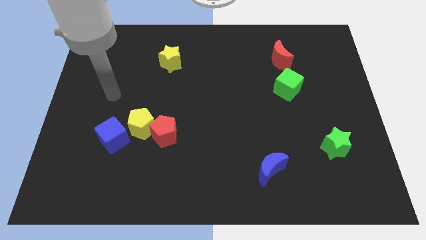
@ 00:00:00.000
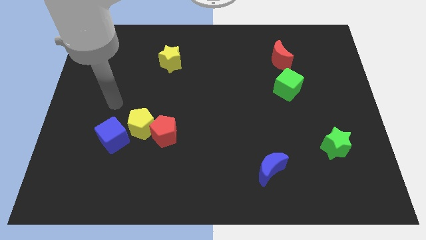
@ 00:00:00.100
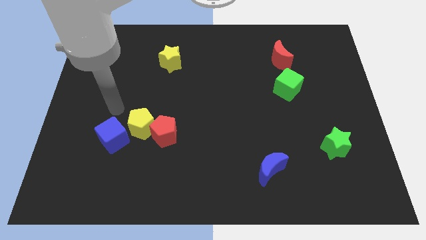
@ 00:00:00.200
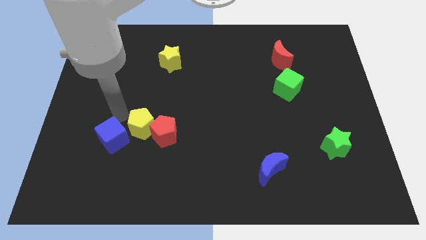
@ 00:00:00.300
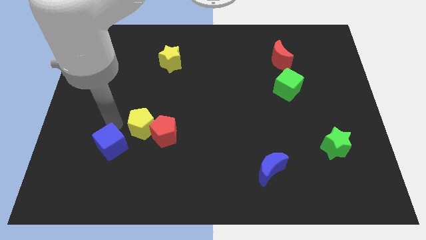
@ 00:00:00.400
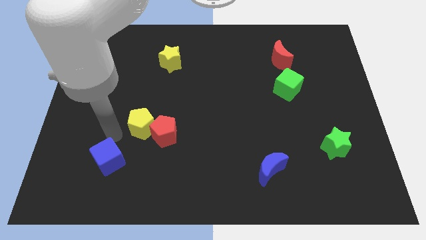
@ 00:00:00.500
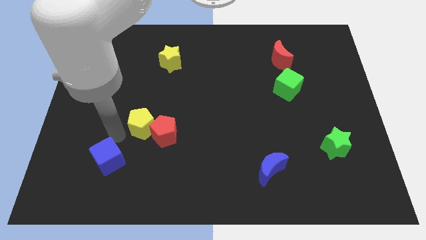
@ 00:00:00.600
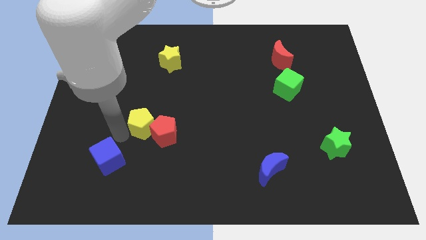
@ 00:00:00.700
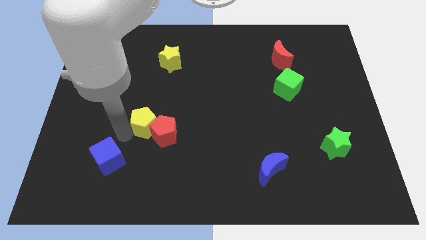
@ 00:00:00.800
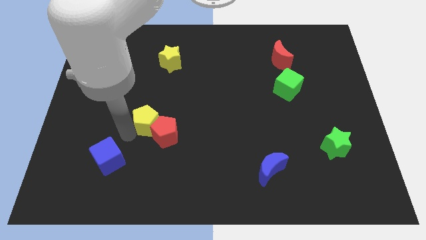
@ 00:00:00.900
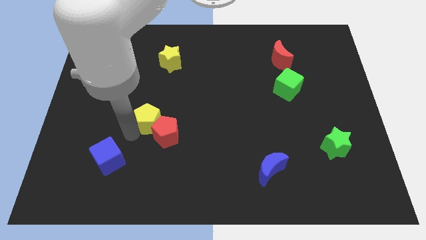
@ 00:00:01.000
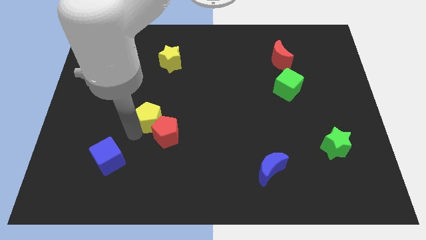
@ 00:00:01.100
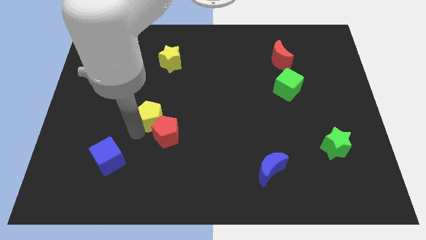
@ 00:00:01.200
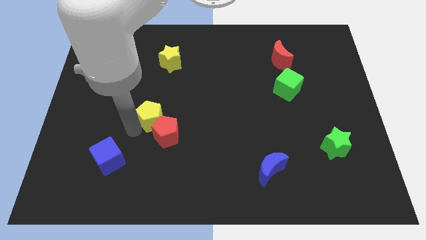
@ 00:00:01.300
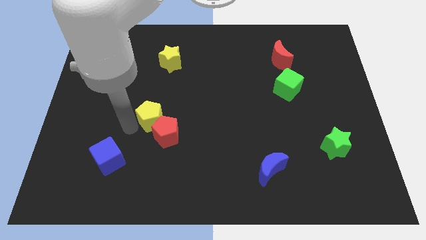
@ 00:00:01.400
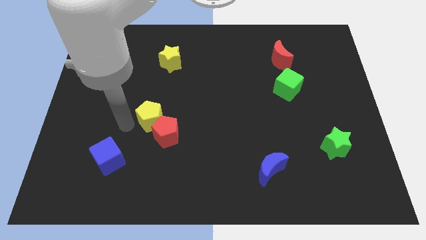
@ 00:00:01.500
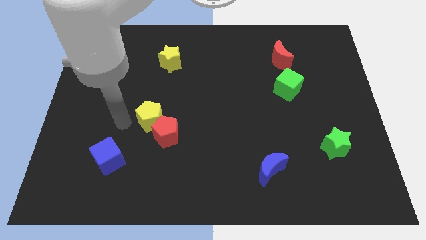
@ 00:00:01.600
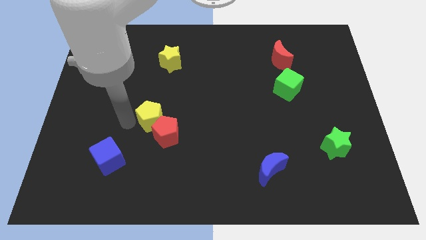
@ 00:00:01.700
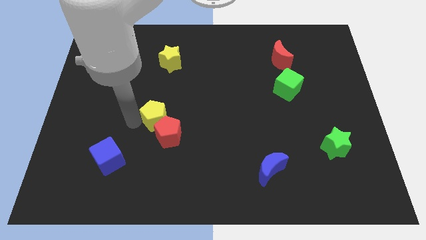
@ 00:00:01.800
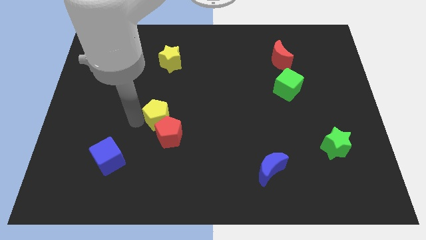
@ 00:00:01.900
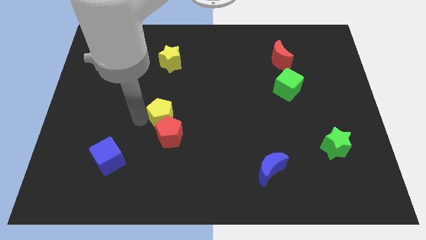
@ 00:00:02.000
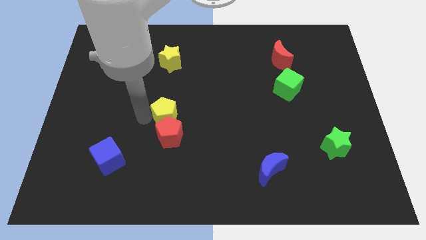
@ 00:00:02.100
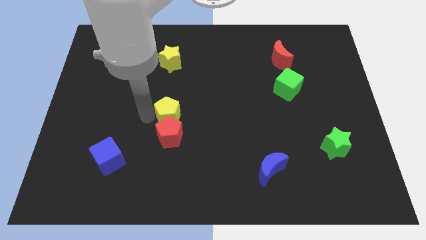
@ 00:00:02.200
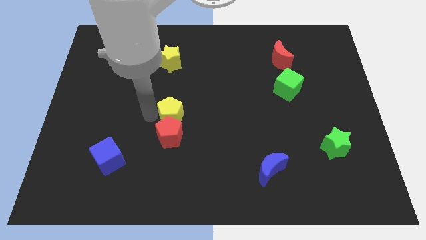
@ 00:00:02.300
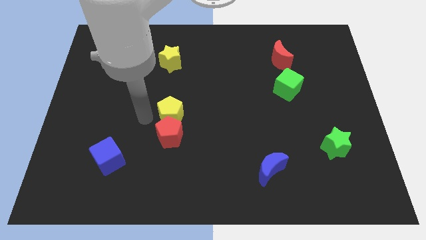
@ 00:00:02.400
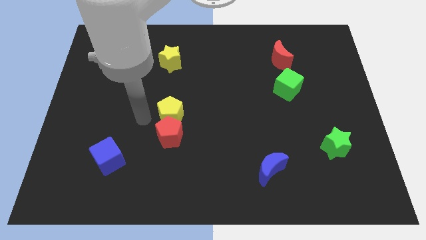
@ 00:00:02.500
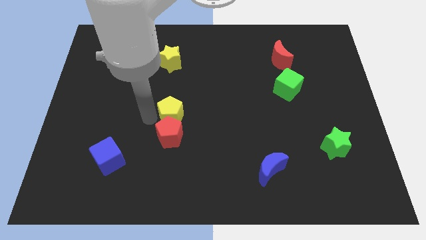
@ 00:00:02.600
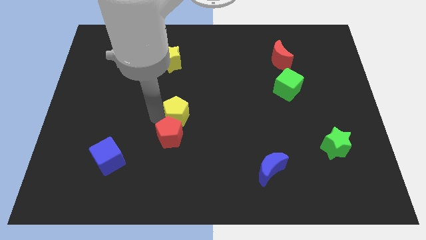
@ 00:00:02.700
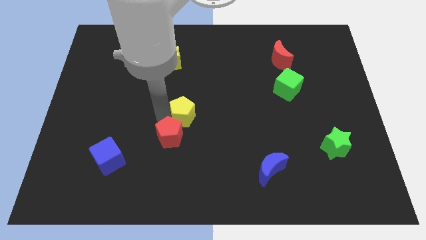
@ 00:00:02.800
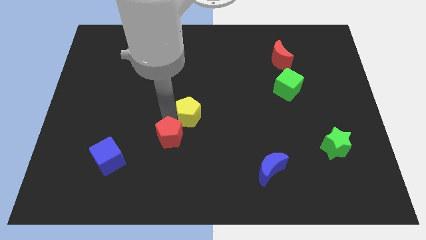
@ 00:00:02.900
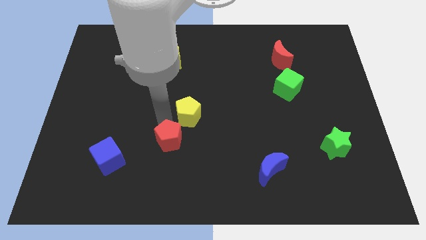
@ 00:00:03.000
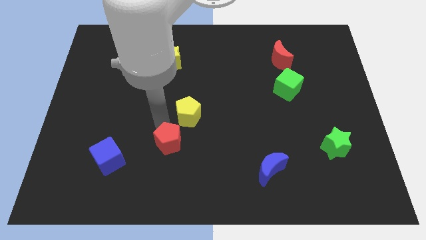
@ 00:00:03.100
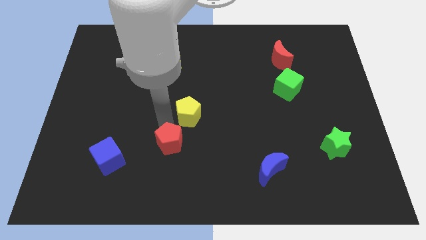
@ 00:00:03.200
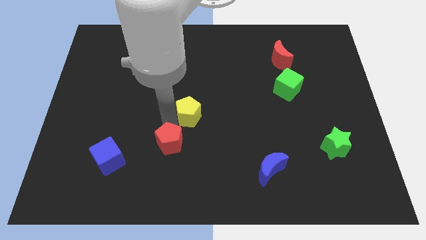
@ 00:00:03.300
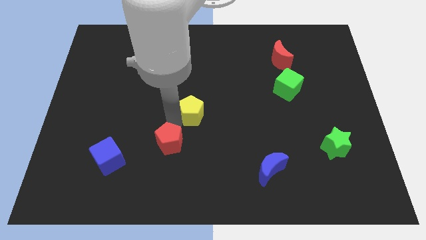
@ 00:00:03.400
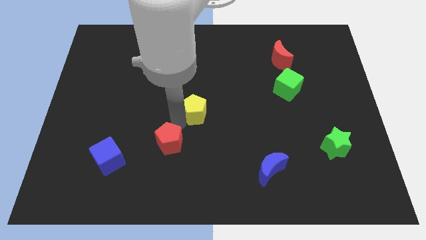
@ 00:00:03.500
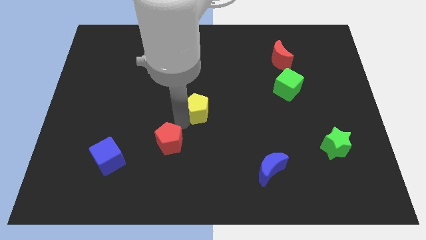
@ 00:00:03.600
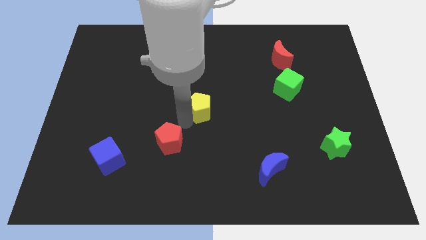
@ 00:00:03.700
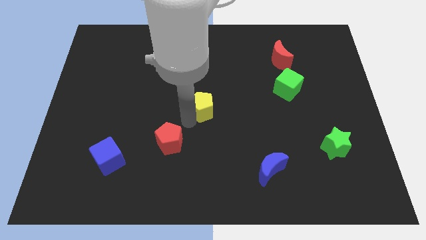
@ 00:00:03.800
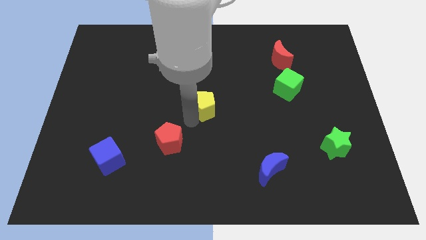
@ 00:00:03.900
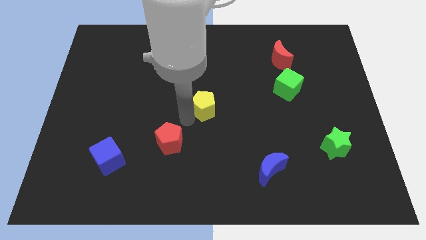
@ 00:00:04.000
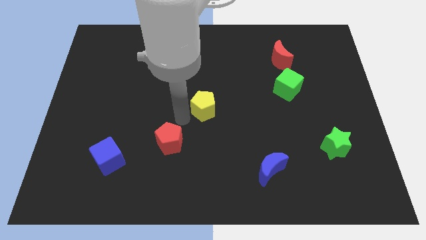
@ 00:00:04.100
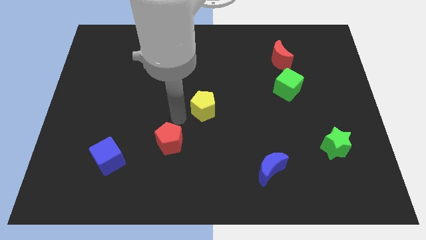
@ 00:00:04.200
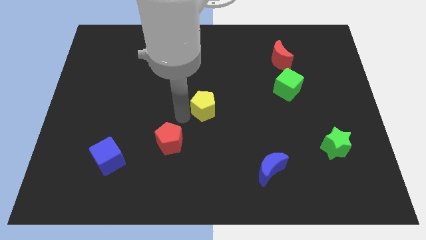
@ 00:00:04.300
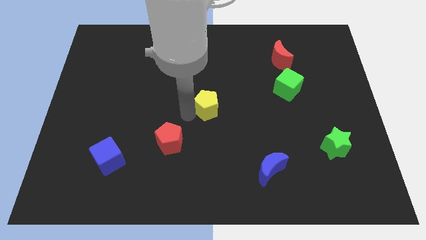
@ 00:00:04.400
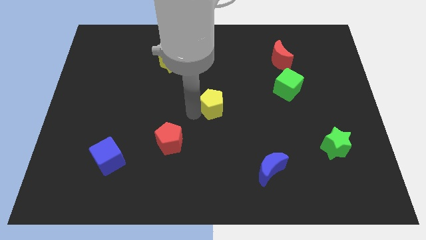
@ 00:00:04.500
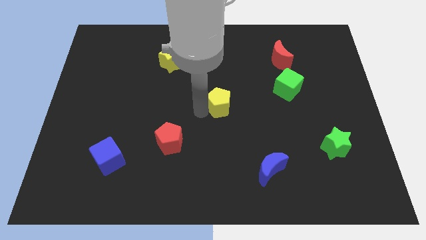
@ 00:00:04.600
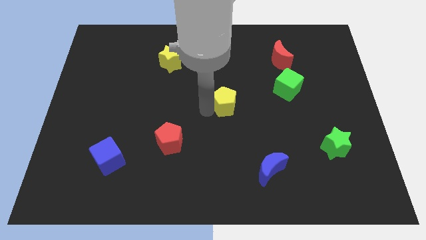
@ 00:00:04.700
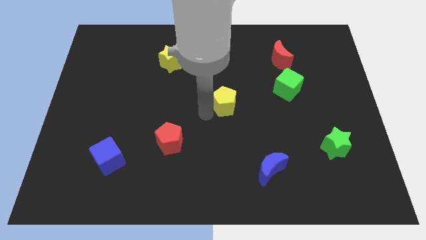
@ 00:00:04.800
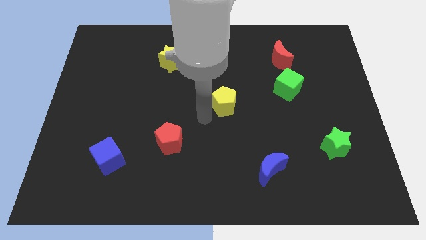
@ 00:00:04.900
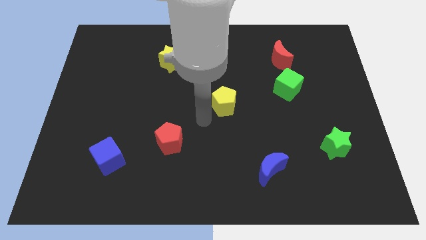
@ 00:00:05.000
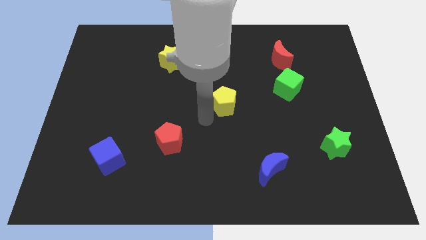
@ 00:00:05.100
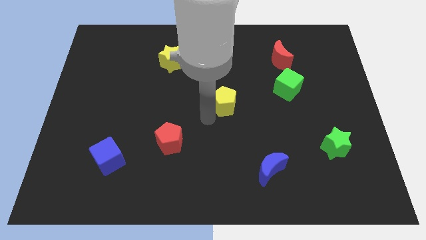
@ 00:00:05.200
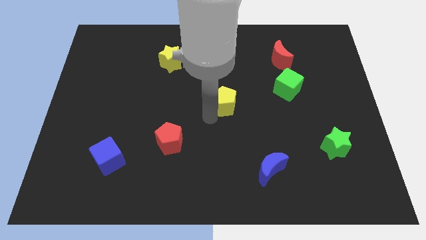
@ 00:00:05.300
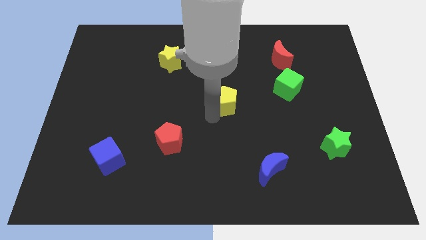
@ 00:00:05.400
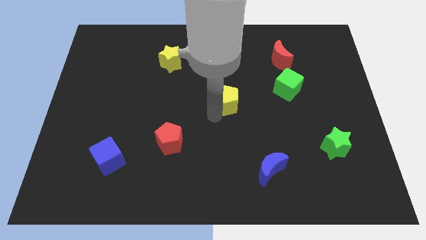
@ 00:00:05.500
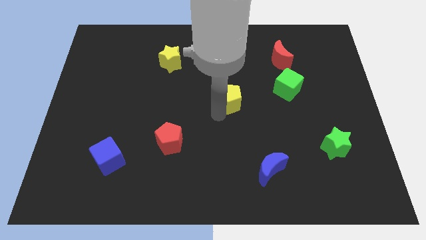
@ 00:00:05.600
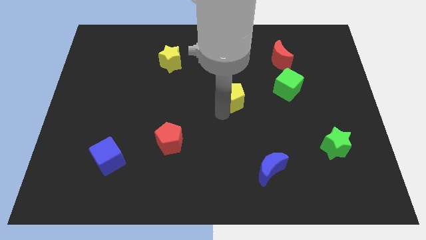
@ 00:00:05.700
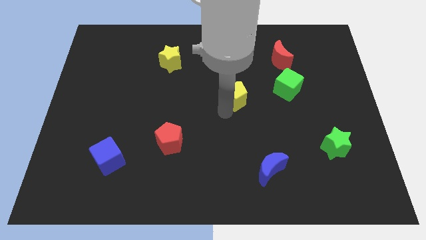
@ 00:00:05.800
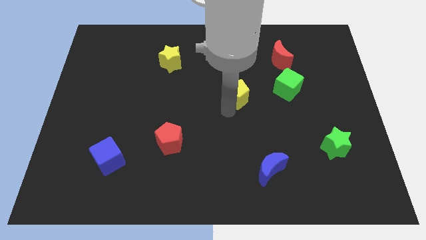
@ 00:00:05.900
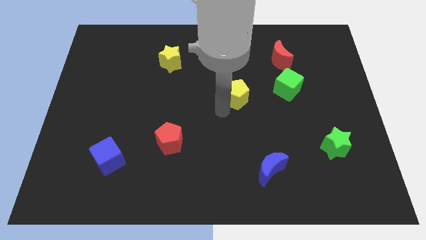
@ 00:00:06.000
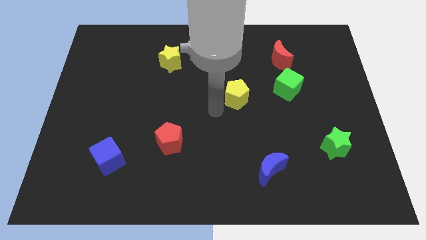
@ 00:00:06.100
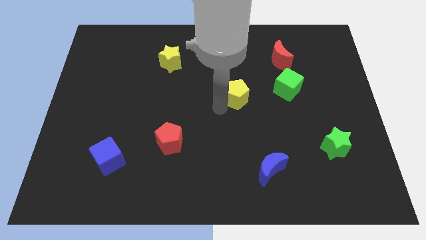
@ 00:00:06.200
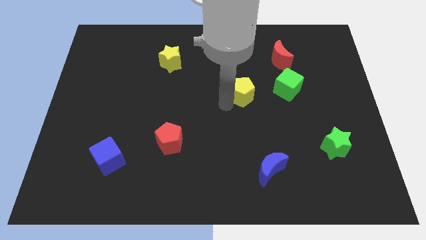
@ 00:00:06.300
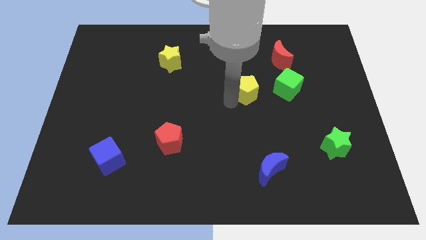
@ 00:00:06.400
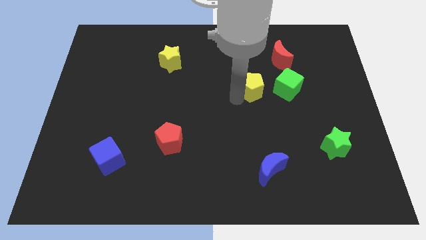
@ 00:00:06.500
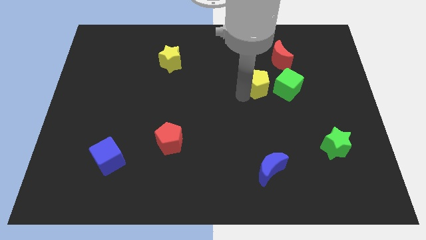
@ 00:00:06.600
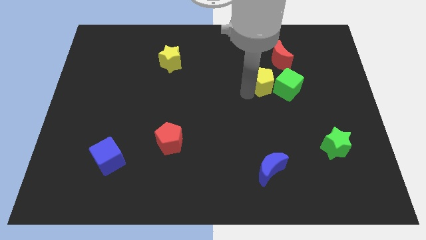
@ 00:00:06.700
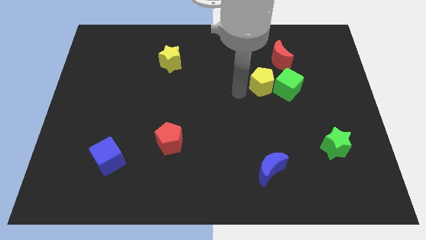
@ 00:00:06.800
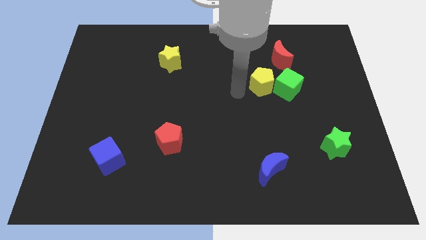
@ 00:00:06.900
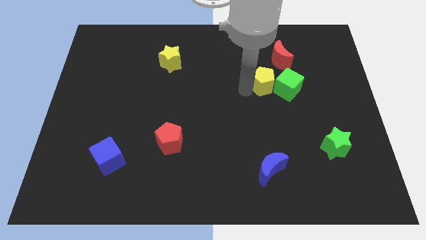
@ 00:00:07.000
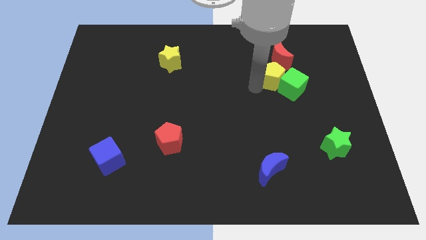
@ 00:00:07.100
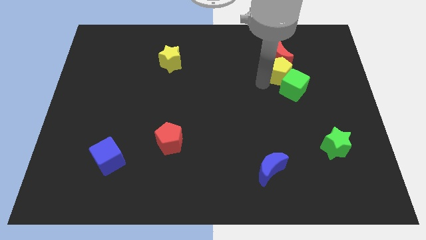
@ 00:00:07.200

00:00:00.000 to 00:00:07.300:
move the yellow pentagon diagonally down and to the right of the red moon
